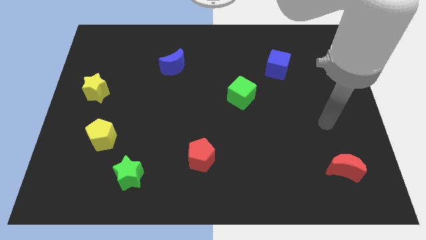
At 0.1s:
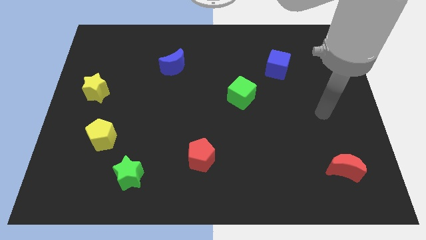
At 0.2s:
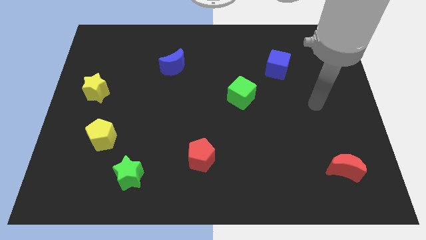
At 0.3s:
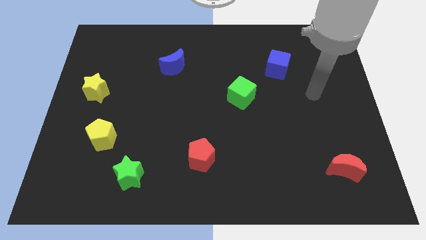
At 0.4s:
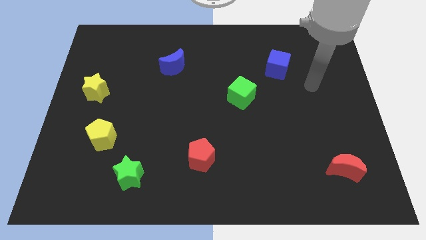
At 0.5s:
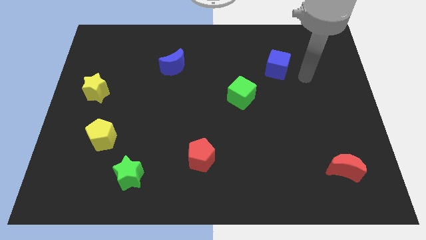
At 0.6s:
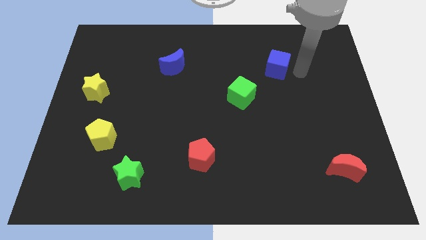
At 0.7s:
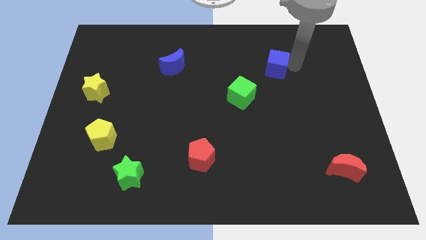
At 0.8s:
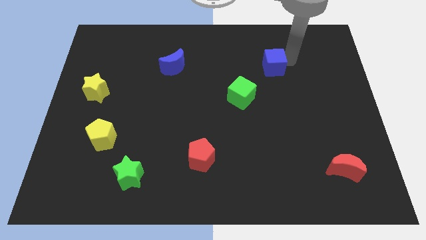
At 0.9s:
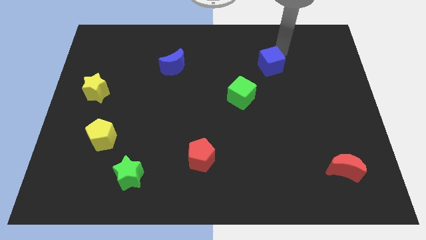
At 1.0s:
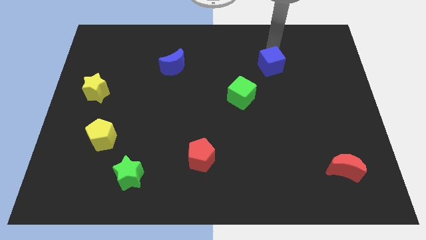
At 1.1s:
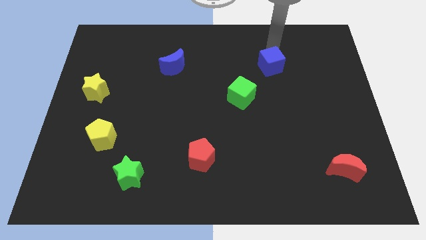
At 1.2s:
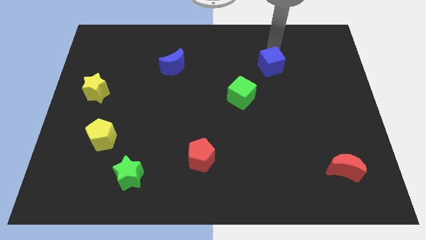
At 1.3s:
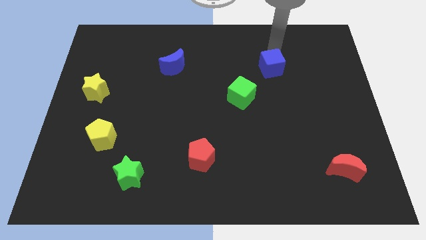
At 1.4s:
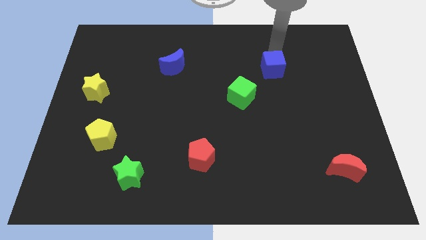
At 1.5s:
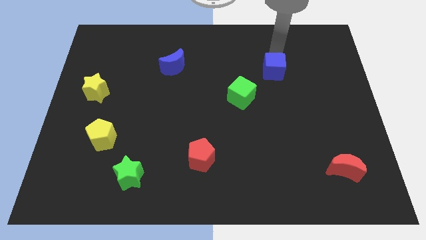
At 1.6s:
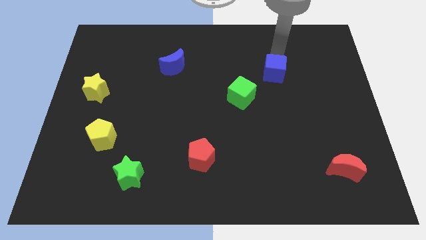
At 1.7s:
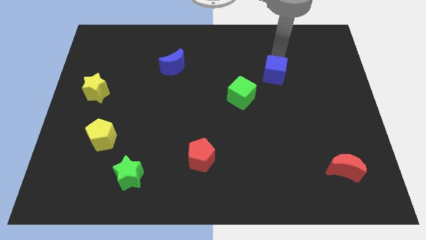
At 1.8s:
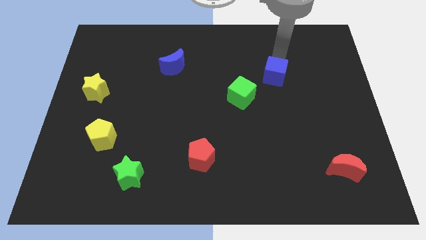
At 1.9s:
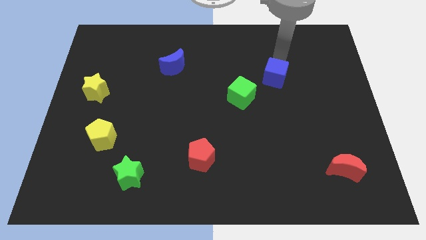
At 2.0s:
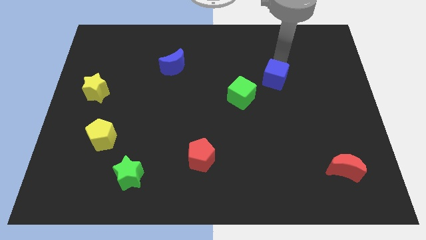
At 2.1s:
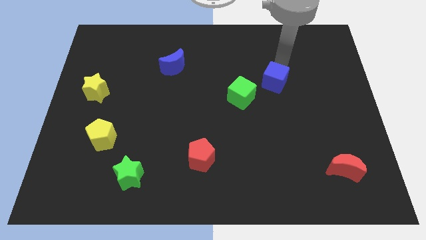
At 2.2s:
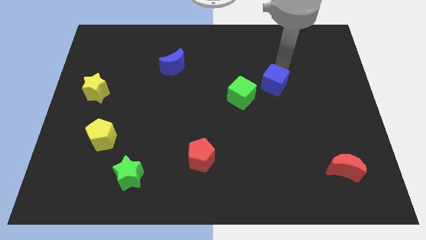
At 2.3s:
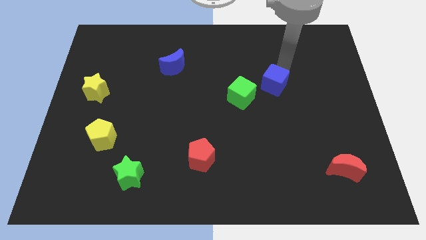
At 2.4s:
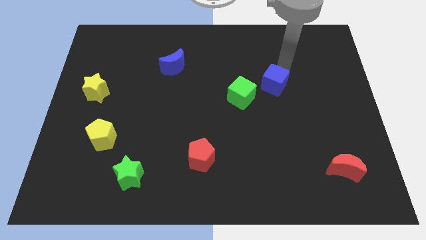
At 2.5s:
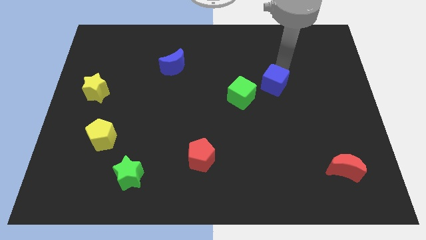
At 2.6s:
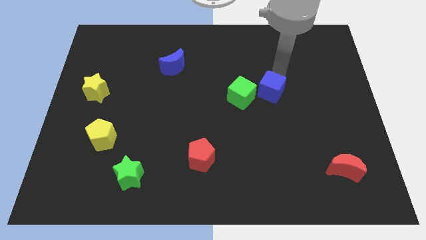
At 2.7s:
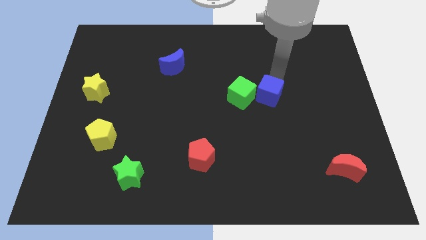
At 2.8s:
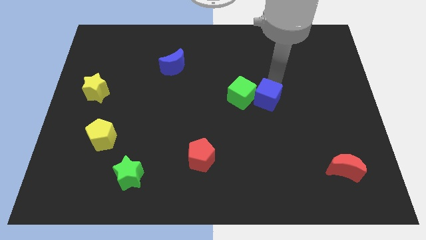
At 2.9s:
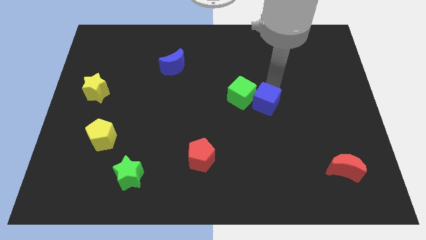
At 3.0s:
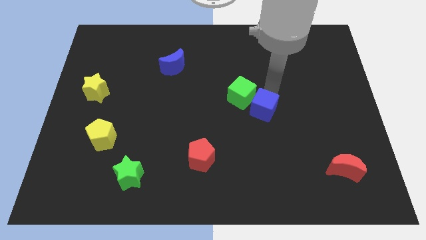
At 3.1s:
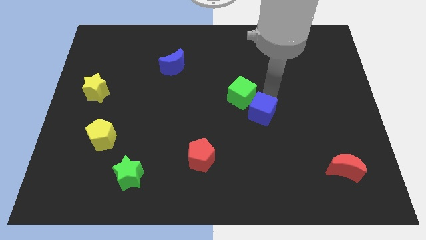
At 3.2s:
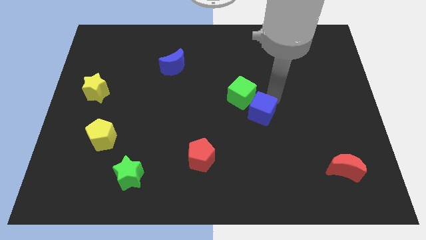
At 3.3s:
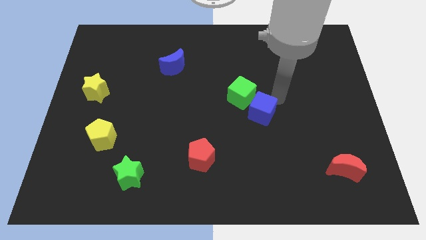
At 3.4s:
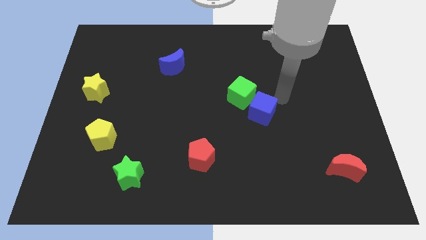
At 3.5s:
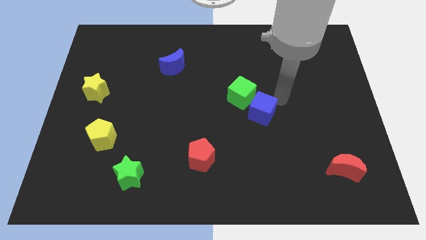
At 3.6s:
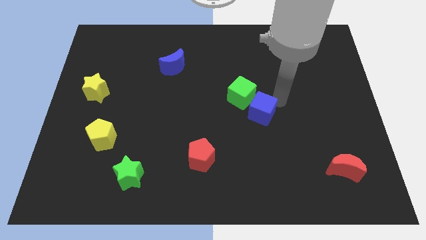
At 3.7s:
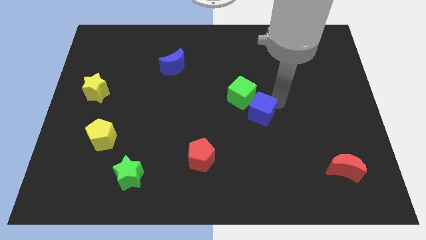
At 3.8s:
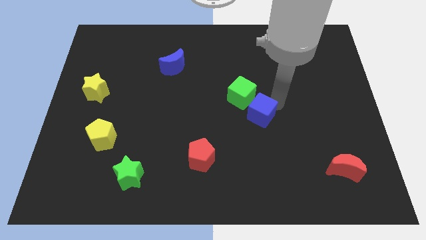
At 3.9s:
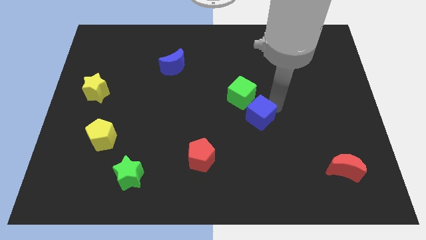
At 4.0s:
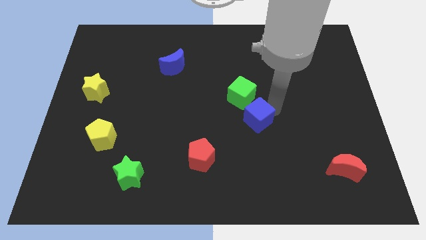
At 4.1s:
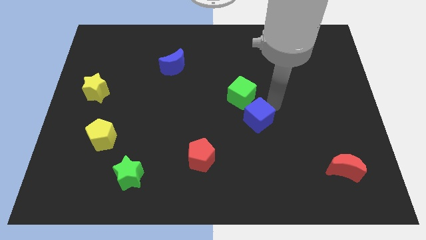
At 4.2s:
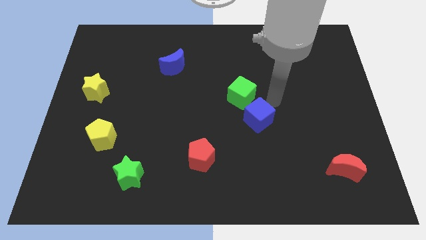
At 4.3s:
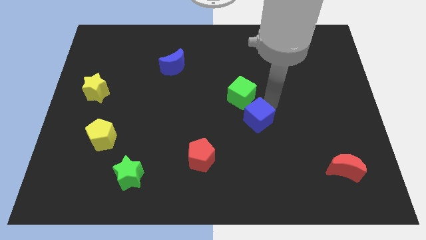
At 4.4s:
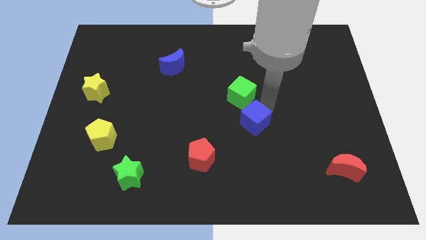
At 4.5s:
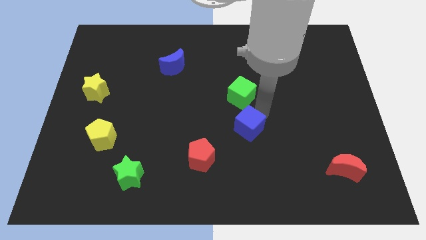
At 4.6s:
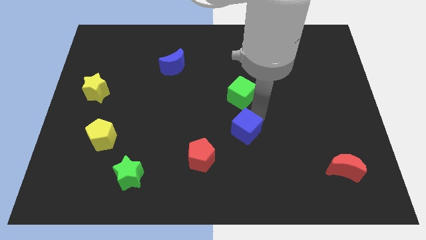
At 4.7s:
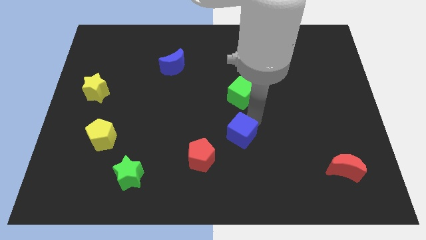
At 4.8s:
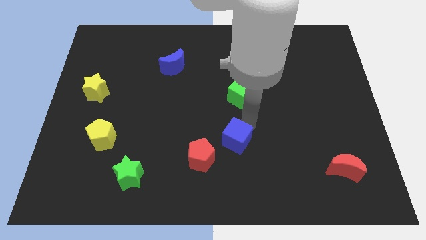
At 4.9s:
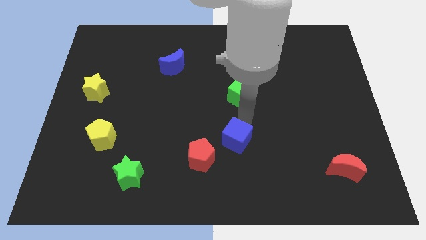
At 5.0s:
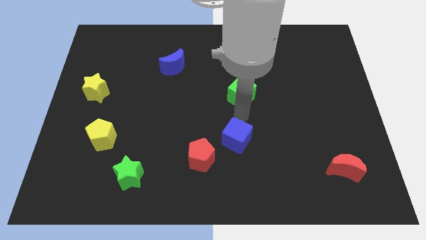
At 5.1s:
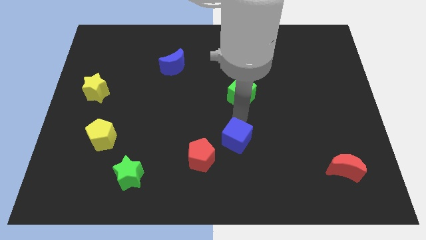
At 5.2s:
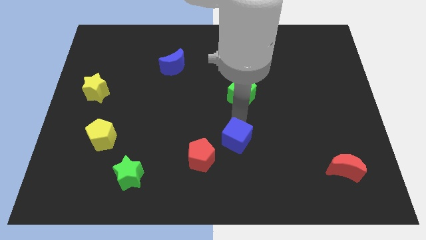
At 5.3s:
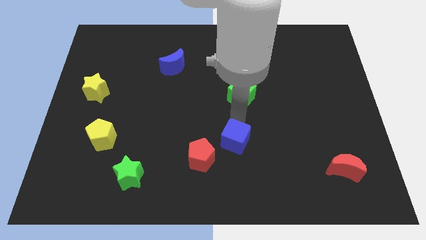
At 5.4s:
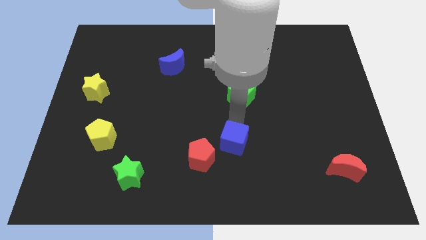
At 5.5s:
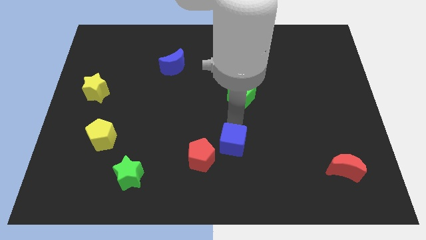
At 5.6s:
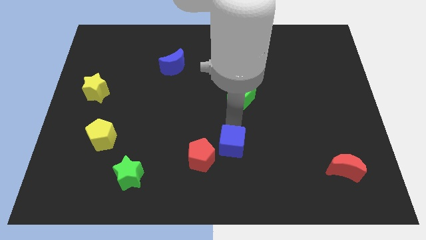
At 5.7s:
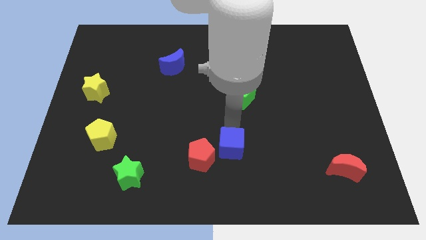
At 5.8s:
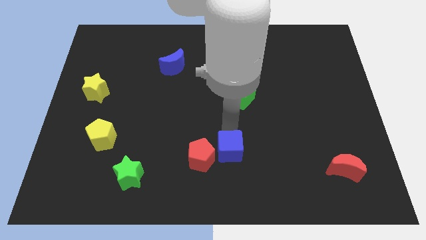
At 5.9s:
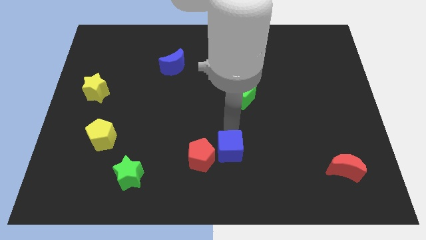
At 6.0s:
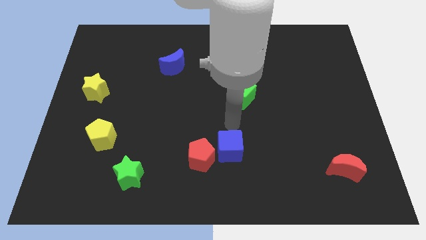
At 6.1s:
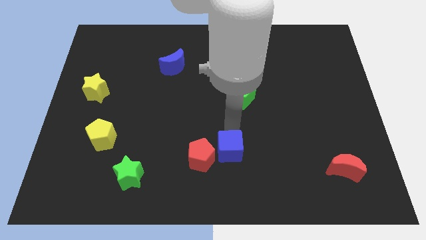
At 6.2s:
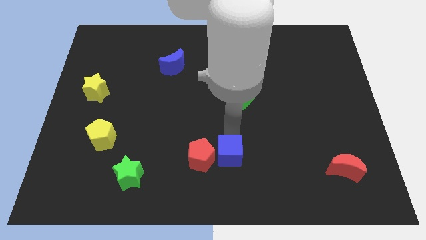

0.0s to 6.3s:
slide the blue cube to the bottom right of the red pentagon

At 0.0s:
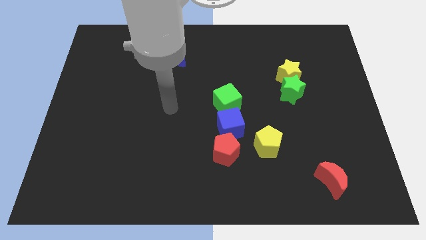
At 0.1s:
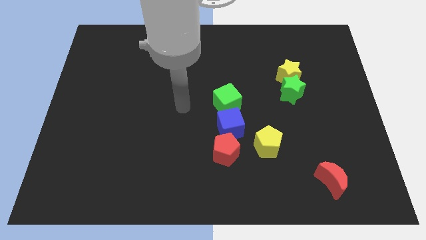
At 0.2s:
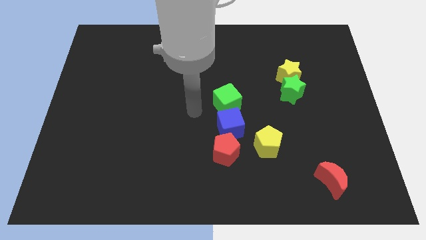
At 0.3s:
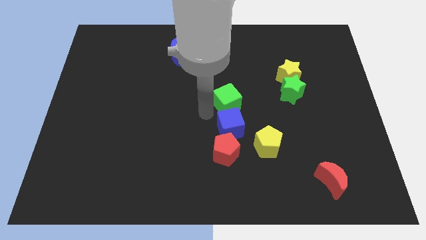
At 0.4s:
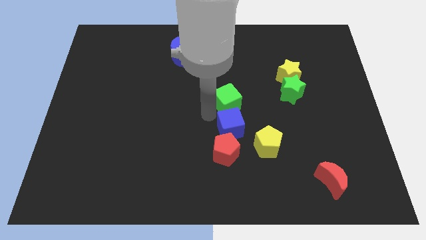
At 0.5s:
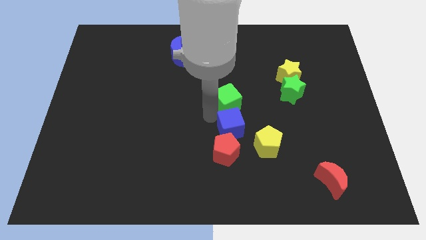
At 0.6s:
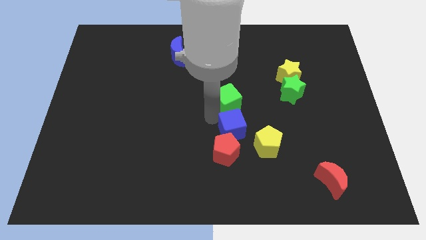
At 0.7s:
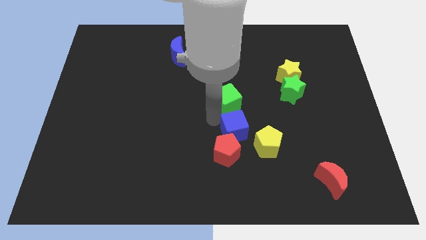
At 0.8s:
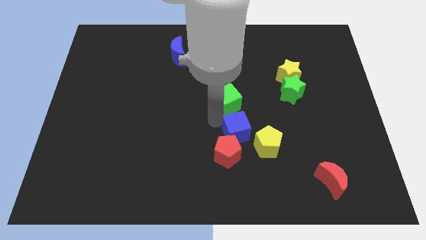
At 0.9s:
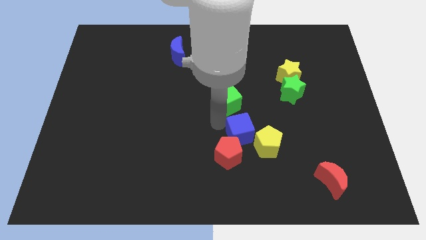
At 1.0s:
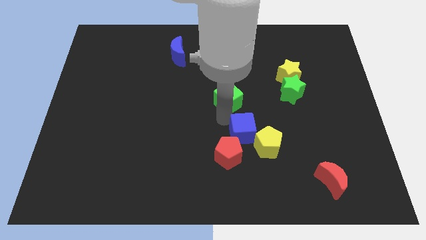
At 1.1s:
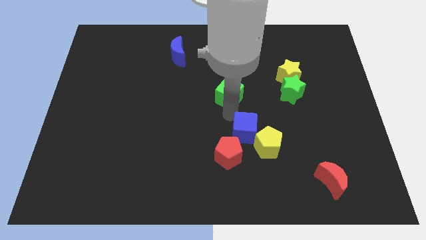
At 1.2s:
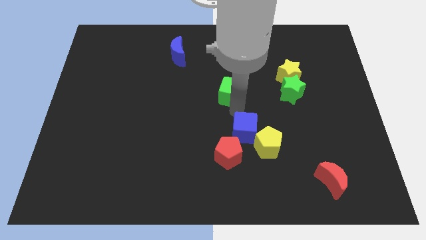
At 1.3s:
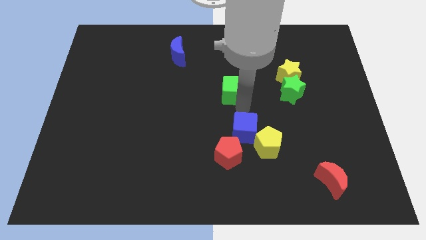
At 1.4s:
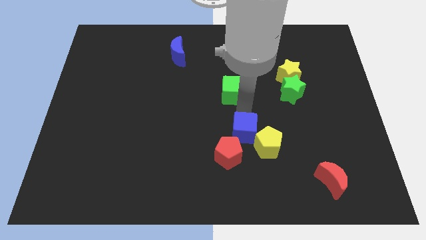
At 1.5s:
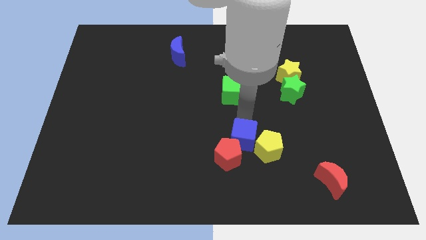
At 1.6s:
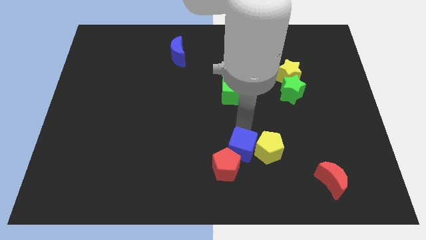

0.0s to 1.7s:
put the blue cube diagonally down and to the left of the yellow pentagon
